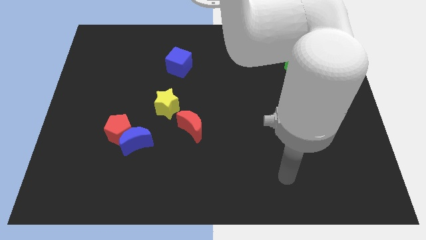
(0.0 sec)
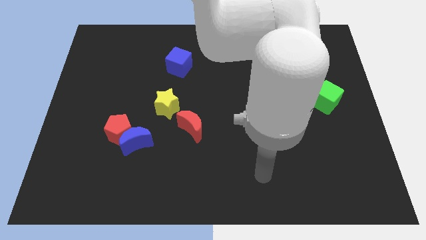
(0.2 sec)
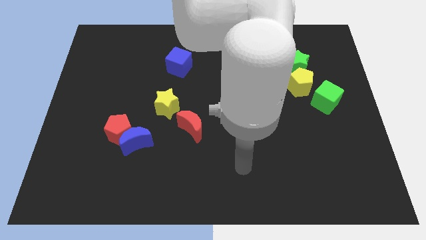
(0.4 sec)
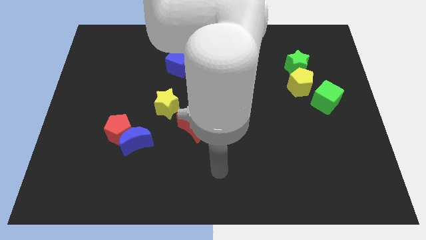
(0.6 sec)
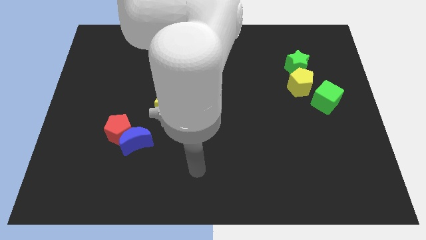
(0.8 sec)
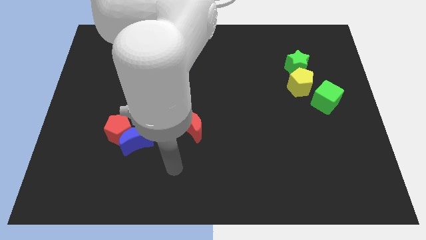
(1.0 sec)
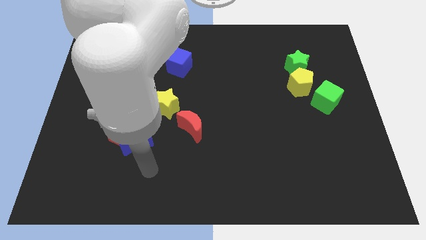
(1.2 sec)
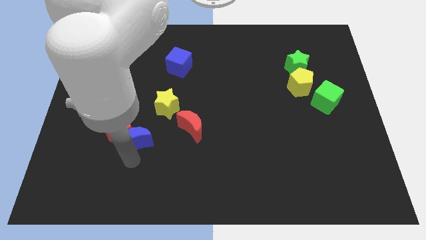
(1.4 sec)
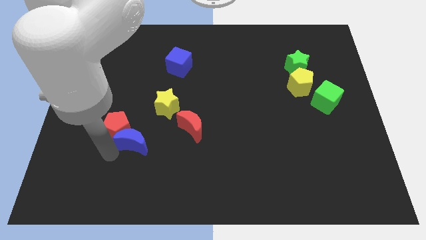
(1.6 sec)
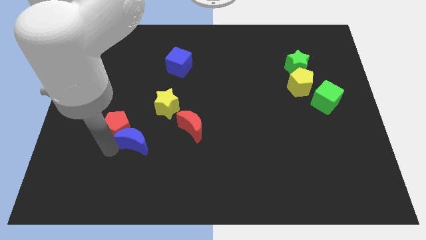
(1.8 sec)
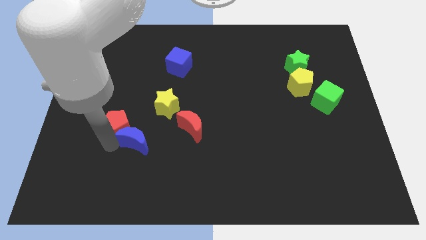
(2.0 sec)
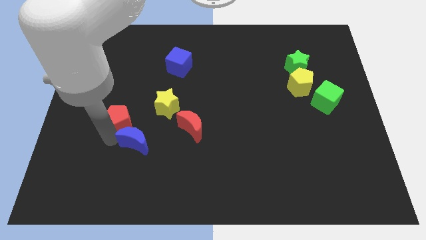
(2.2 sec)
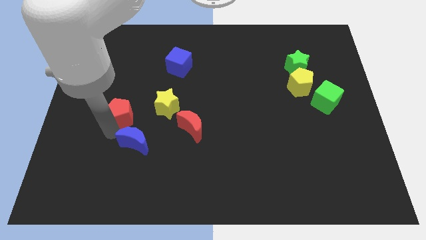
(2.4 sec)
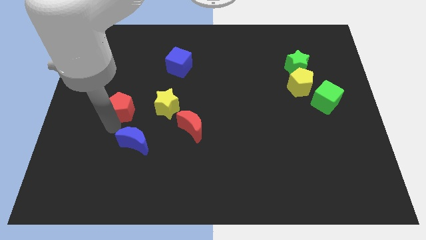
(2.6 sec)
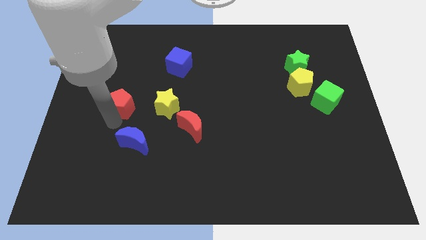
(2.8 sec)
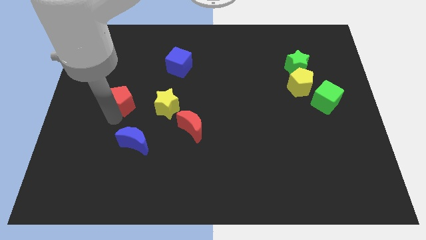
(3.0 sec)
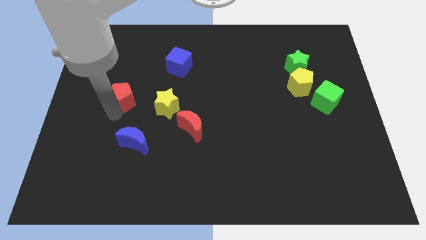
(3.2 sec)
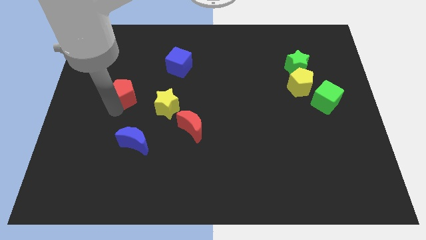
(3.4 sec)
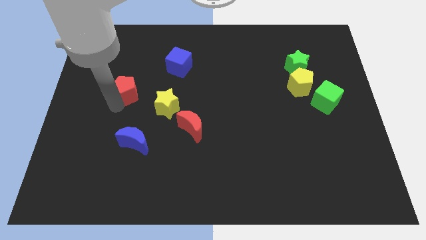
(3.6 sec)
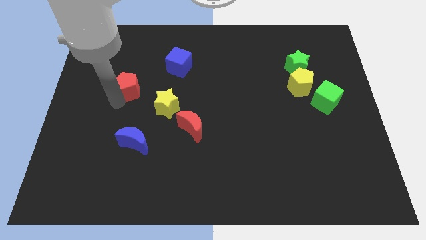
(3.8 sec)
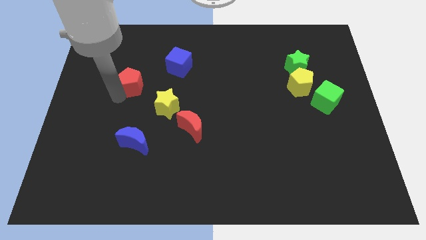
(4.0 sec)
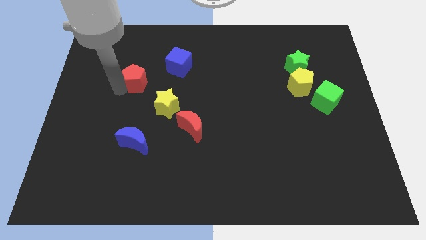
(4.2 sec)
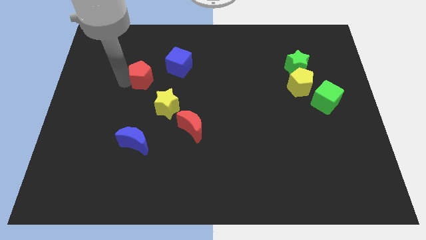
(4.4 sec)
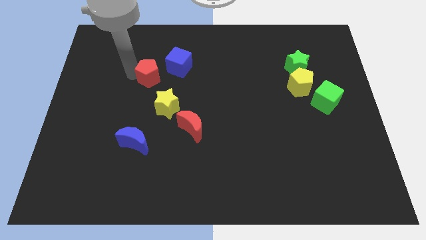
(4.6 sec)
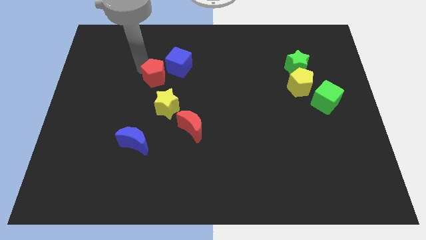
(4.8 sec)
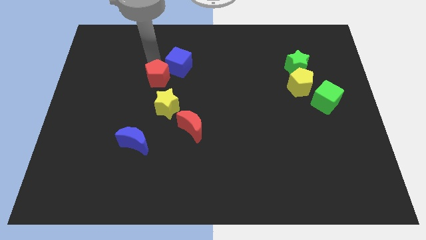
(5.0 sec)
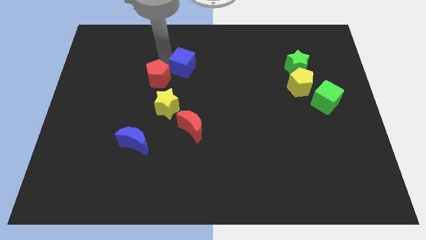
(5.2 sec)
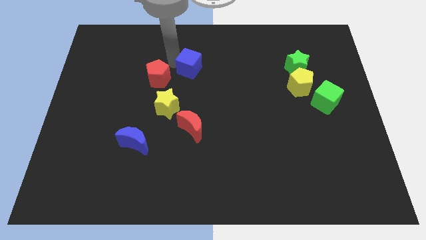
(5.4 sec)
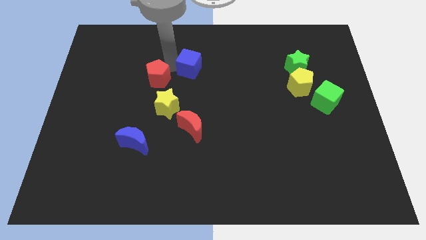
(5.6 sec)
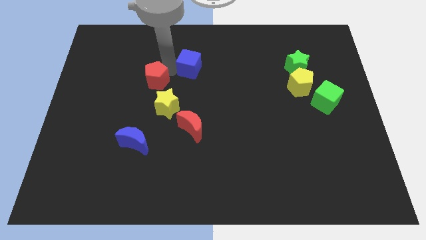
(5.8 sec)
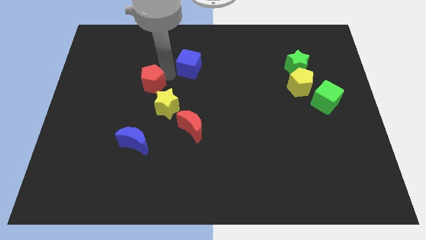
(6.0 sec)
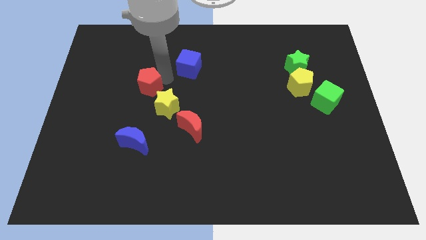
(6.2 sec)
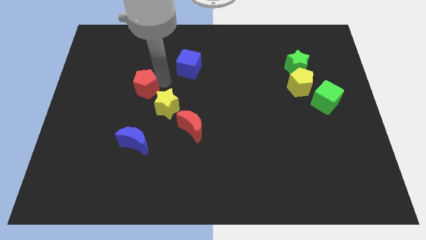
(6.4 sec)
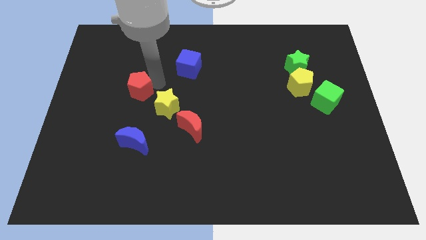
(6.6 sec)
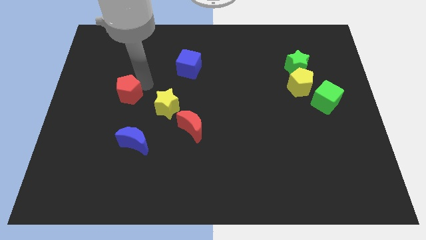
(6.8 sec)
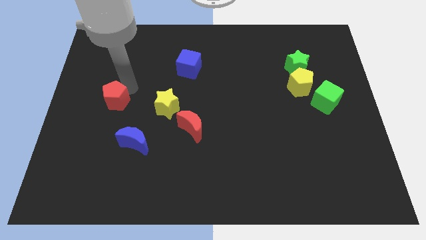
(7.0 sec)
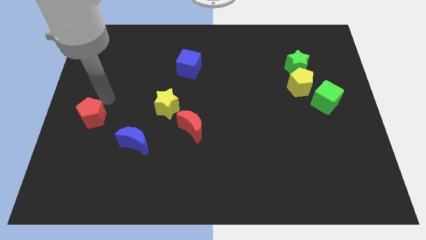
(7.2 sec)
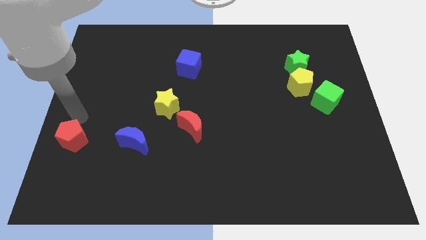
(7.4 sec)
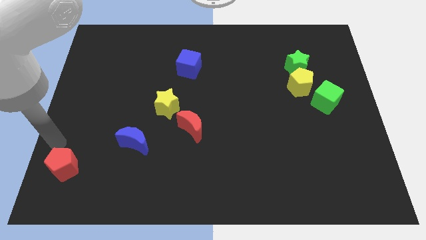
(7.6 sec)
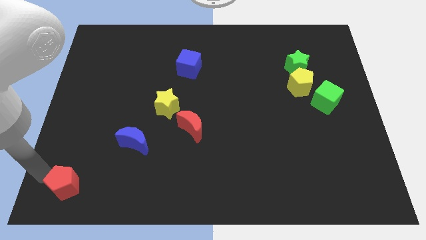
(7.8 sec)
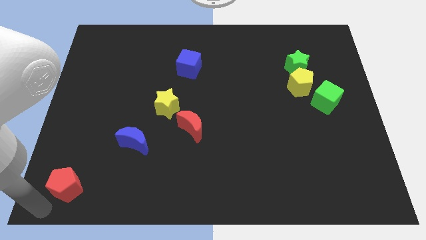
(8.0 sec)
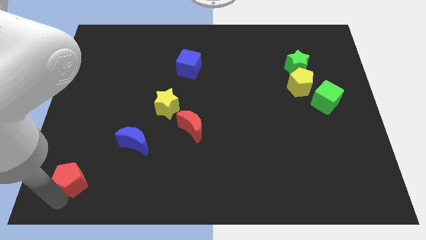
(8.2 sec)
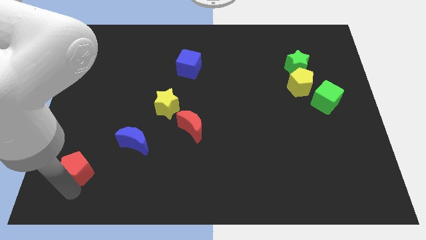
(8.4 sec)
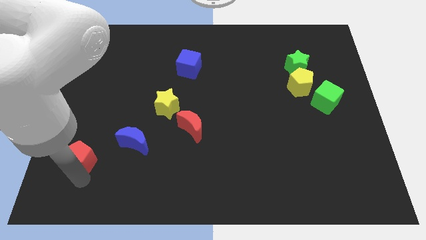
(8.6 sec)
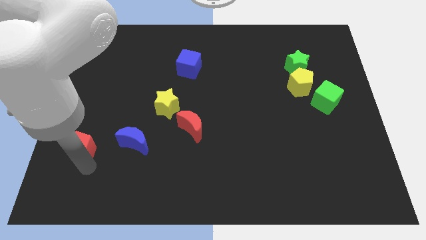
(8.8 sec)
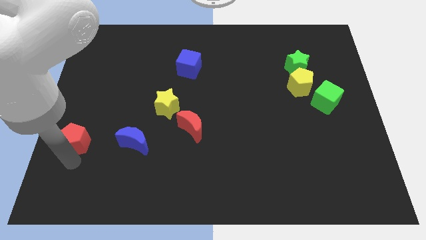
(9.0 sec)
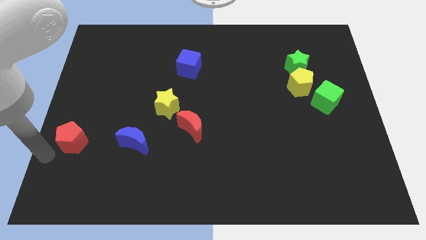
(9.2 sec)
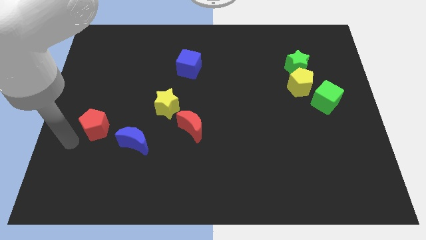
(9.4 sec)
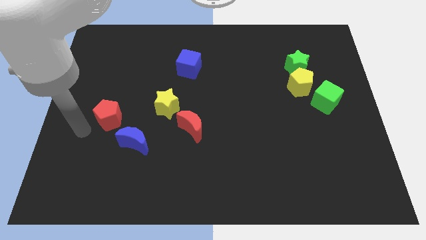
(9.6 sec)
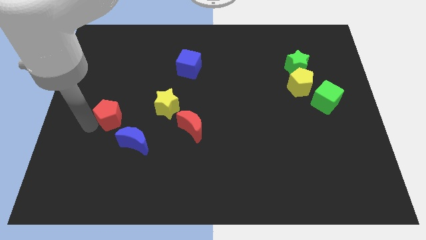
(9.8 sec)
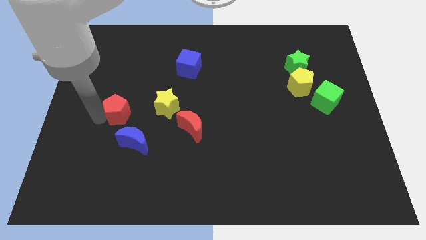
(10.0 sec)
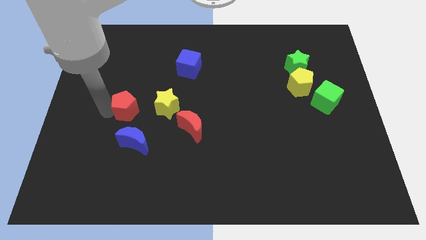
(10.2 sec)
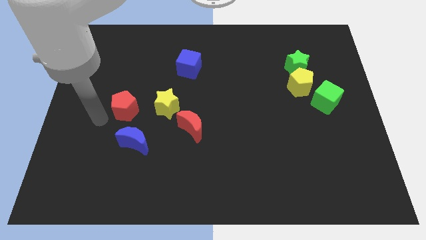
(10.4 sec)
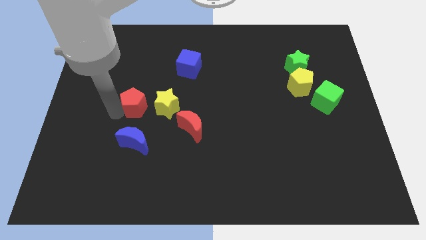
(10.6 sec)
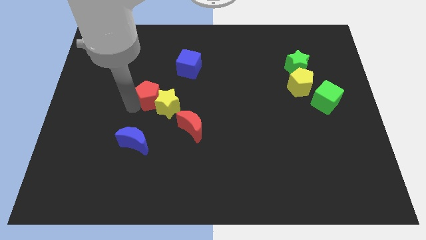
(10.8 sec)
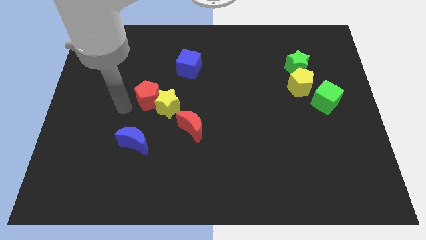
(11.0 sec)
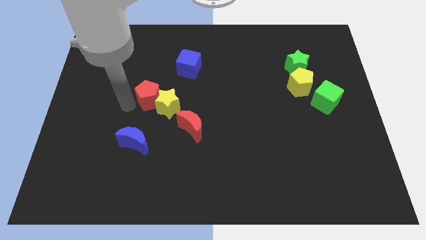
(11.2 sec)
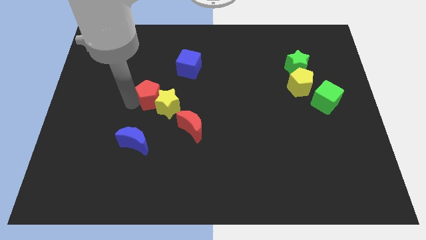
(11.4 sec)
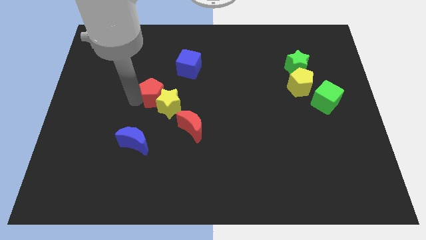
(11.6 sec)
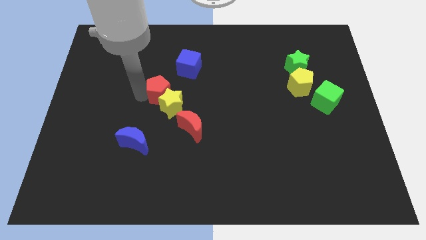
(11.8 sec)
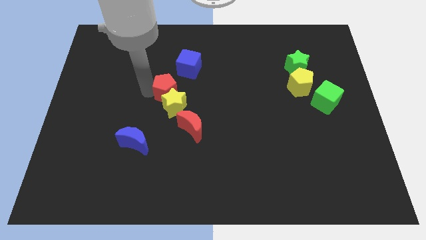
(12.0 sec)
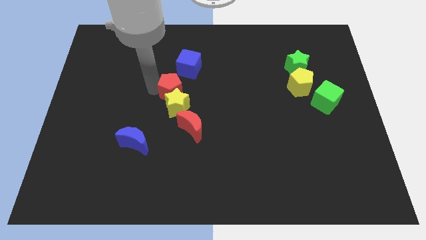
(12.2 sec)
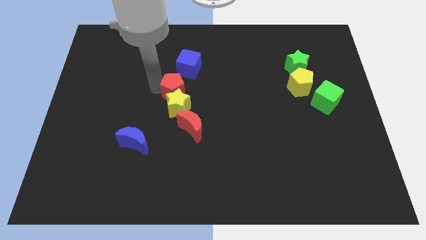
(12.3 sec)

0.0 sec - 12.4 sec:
slide the red pentagon to the top of the red moon

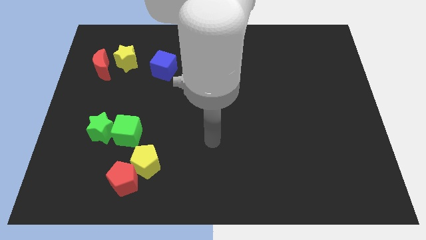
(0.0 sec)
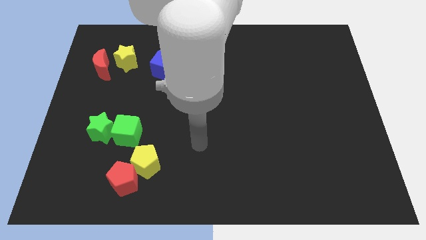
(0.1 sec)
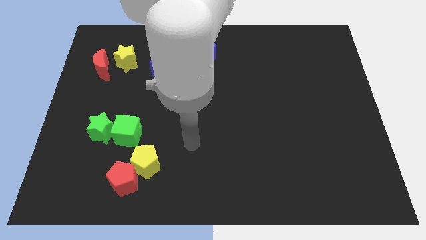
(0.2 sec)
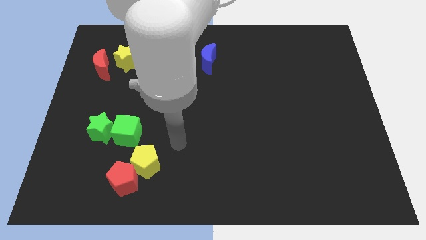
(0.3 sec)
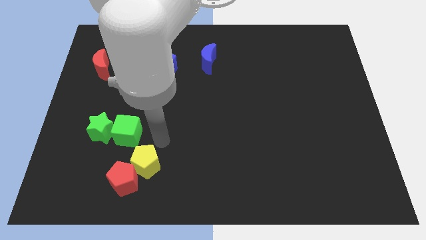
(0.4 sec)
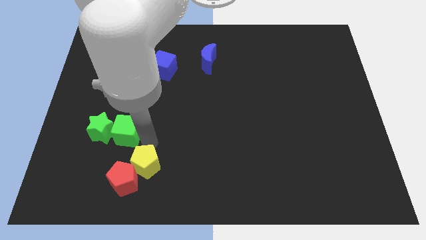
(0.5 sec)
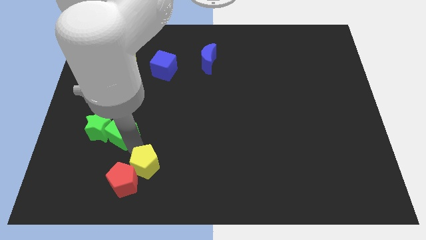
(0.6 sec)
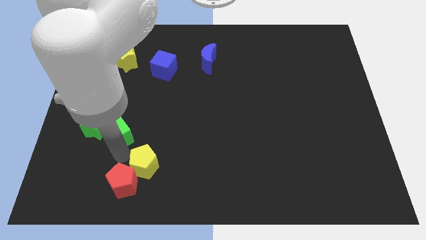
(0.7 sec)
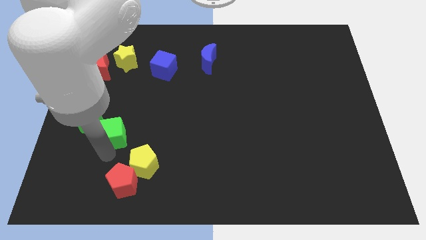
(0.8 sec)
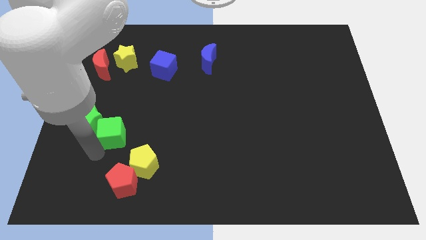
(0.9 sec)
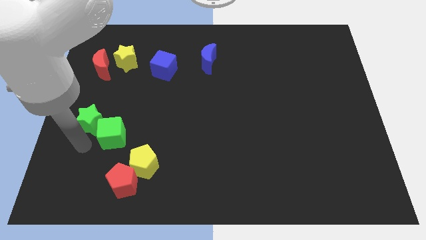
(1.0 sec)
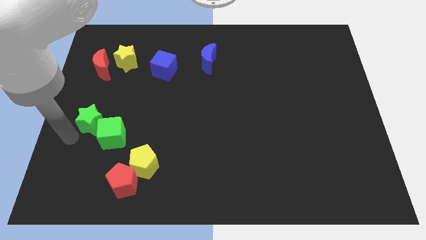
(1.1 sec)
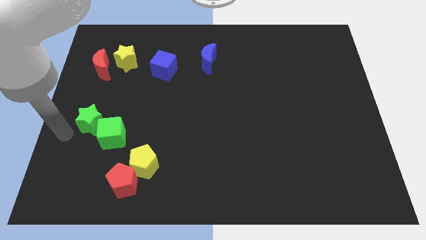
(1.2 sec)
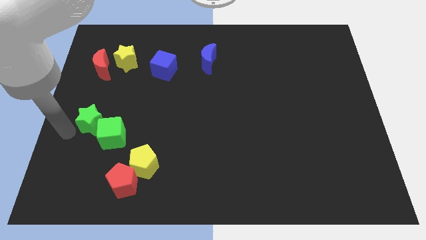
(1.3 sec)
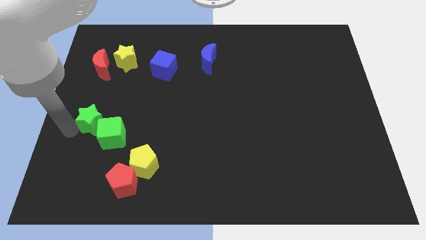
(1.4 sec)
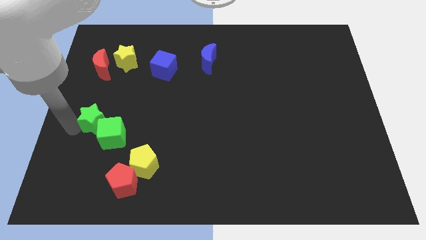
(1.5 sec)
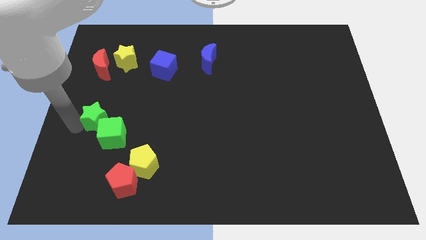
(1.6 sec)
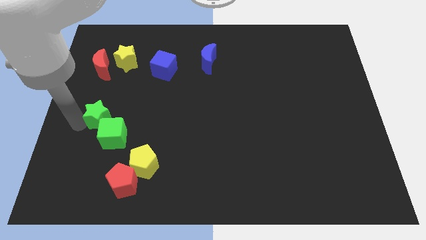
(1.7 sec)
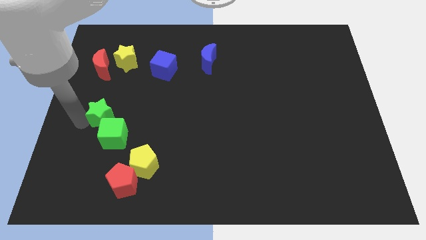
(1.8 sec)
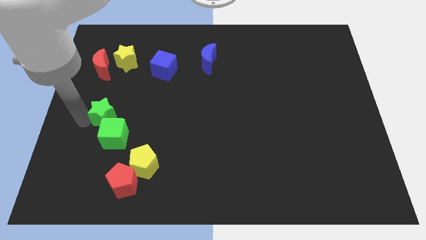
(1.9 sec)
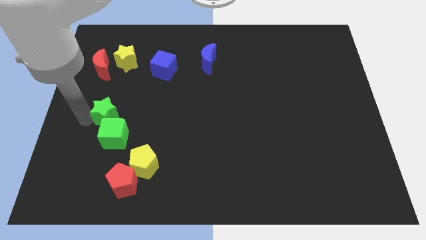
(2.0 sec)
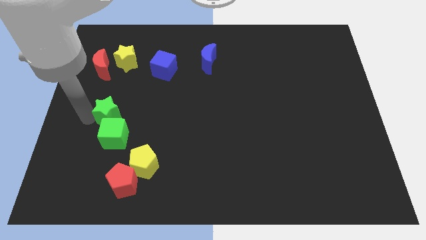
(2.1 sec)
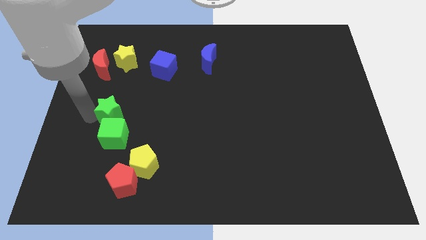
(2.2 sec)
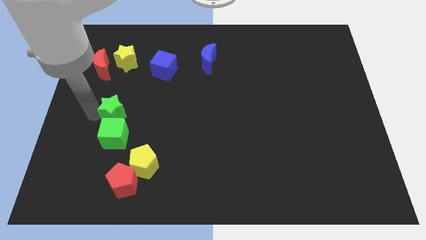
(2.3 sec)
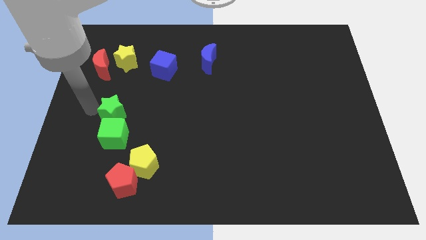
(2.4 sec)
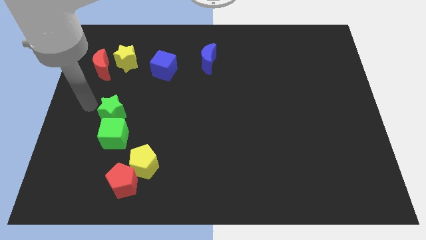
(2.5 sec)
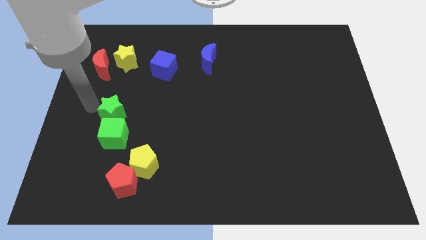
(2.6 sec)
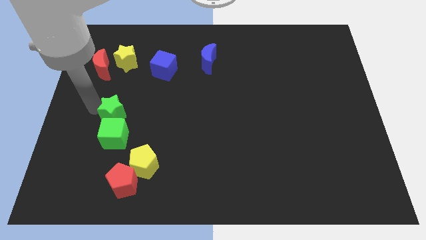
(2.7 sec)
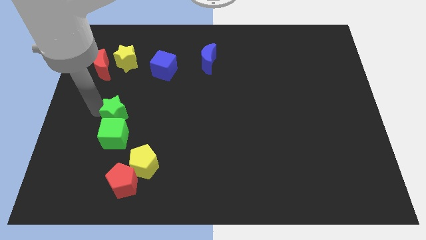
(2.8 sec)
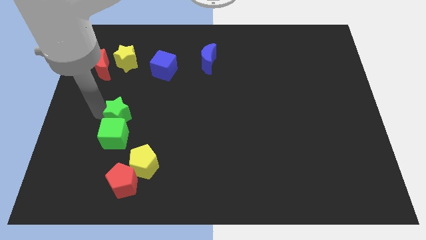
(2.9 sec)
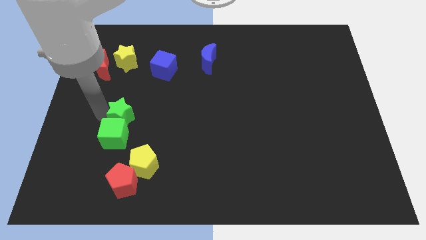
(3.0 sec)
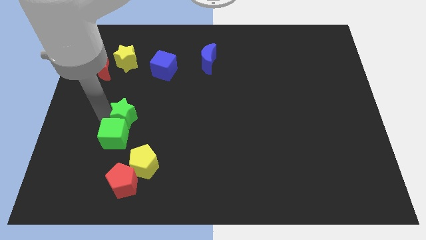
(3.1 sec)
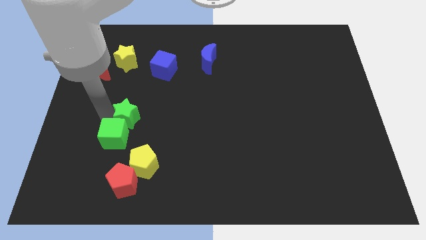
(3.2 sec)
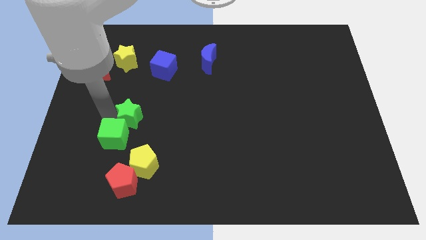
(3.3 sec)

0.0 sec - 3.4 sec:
push the green star above the yellow pentagon
